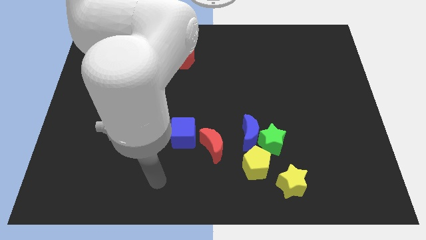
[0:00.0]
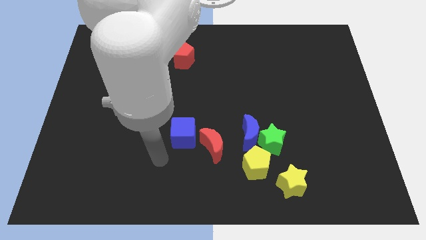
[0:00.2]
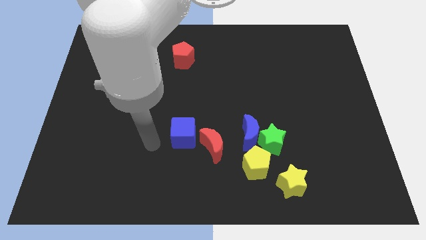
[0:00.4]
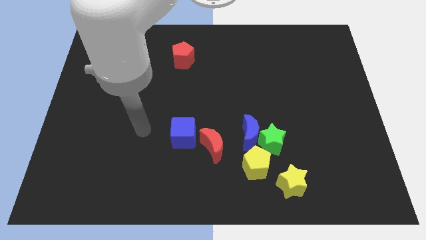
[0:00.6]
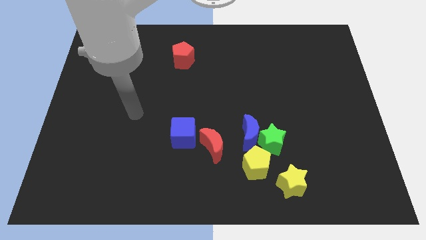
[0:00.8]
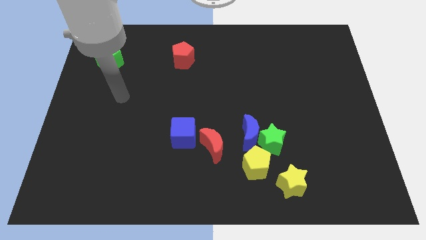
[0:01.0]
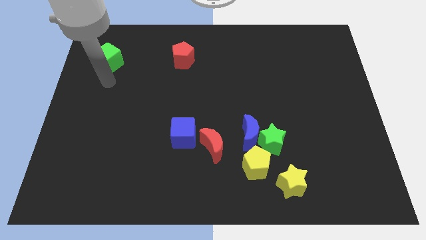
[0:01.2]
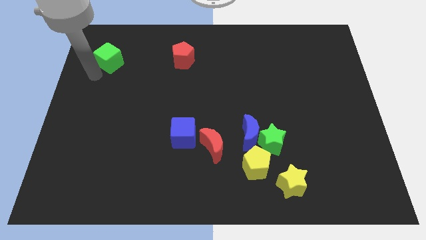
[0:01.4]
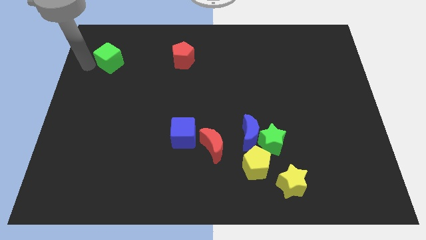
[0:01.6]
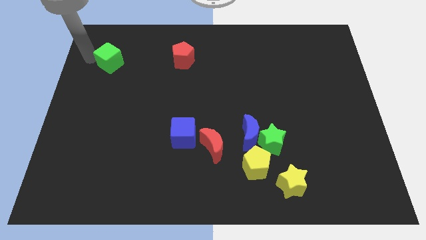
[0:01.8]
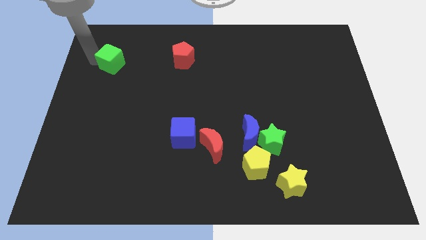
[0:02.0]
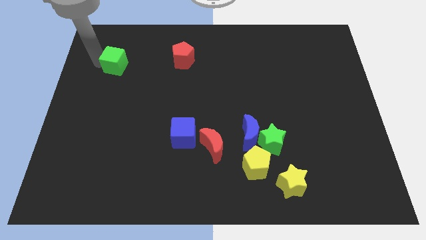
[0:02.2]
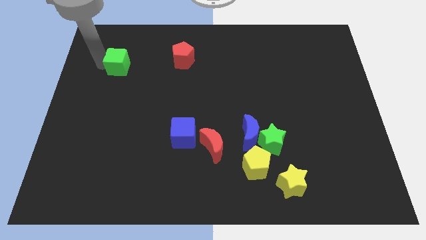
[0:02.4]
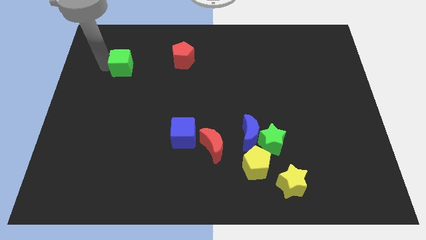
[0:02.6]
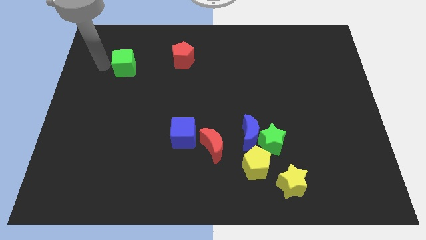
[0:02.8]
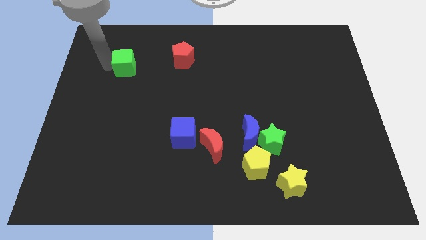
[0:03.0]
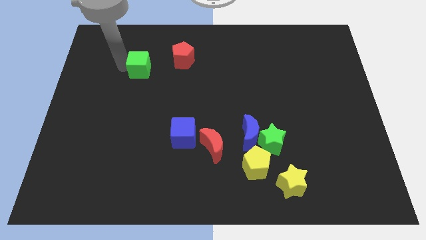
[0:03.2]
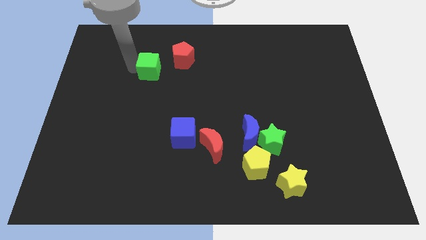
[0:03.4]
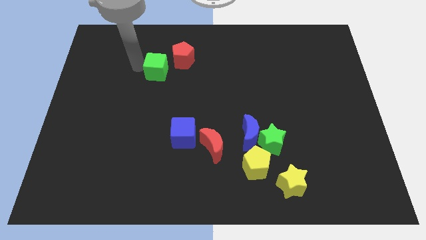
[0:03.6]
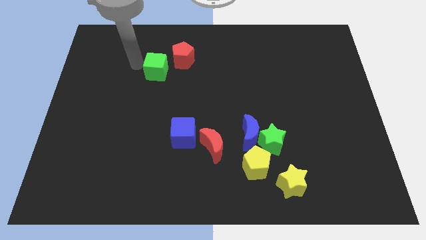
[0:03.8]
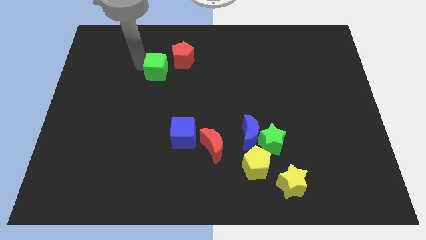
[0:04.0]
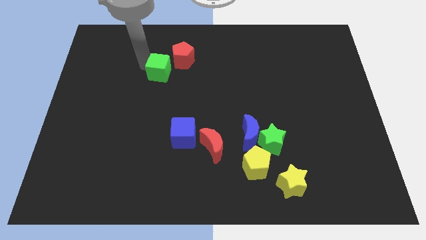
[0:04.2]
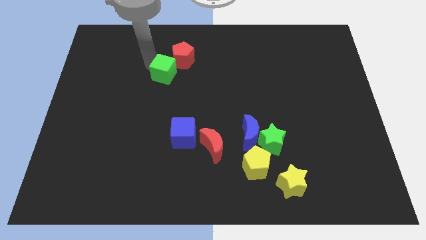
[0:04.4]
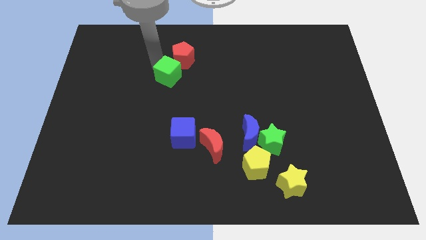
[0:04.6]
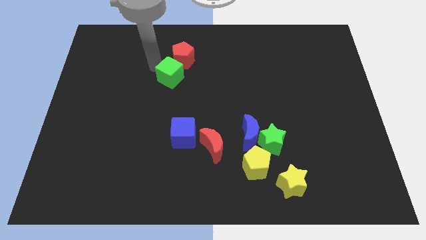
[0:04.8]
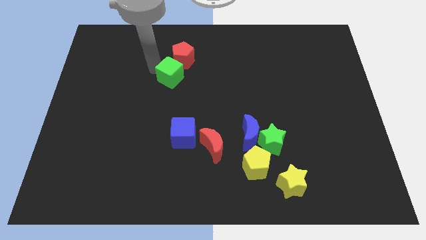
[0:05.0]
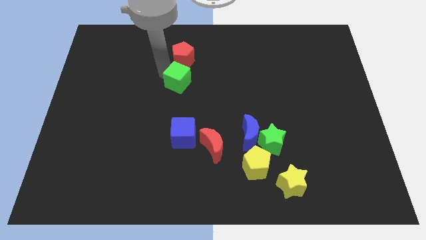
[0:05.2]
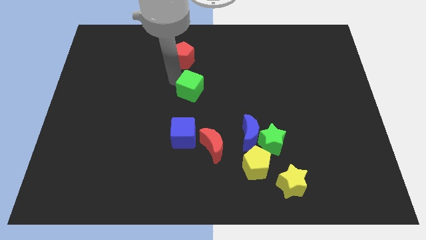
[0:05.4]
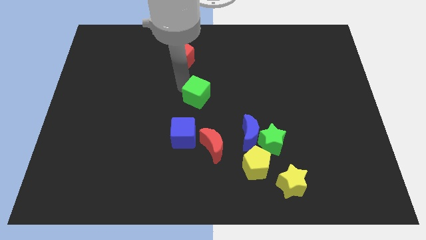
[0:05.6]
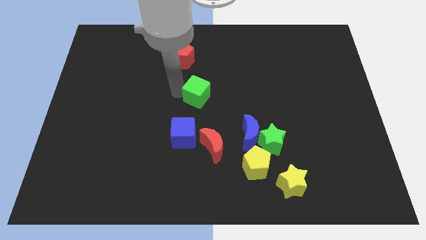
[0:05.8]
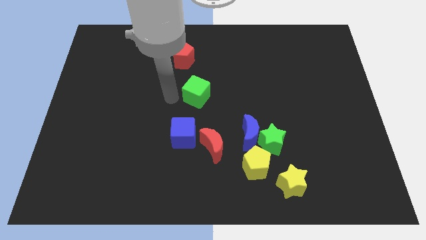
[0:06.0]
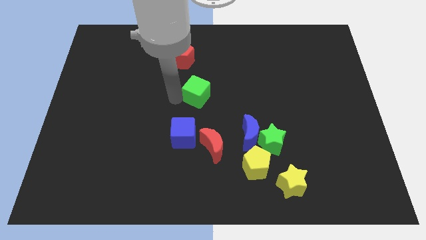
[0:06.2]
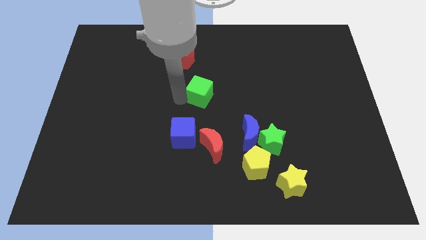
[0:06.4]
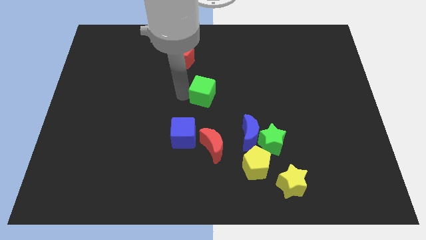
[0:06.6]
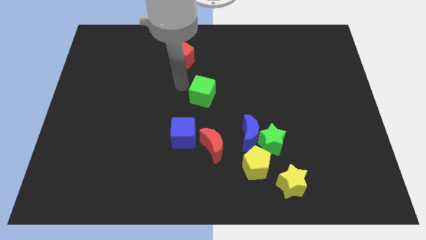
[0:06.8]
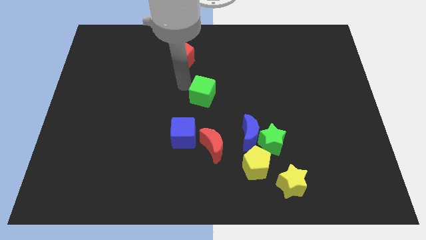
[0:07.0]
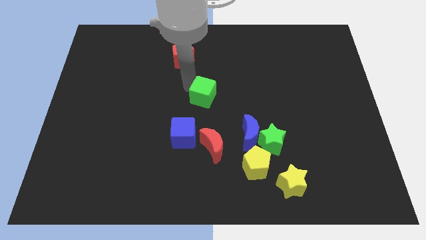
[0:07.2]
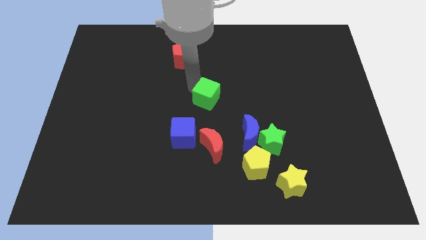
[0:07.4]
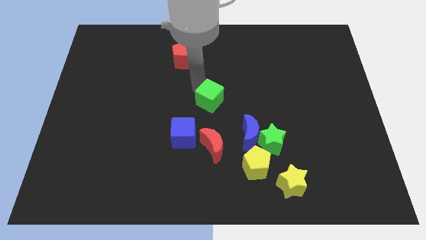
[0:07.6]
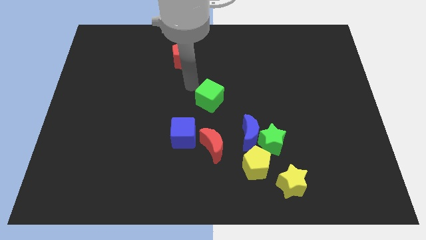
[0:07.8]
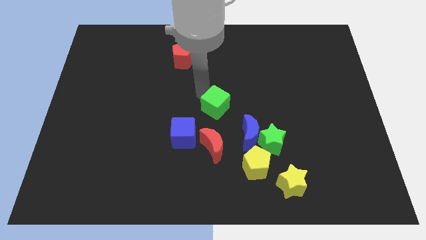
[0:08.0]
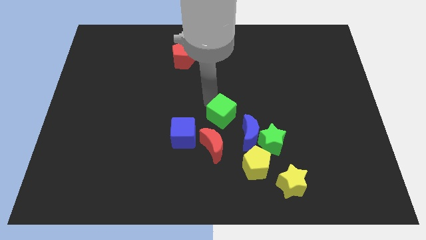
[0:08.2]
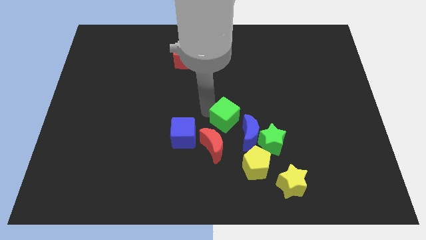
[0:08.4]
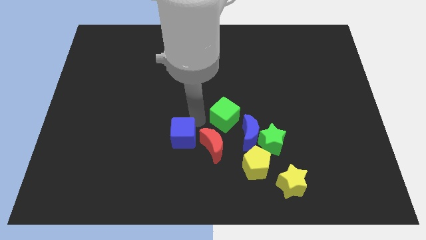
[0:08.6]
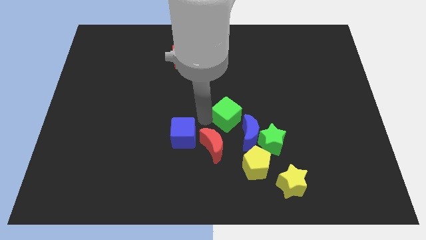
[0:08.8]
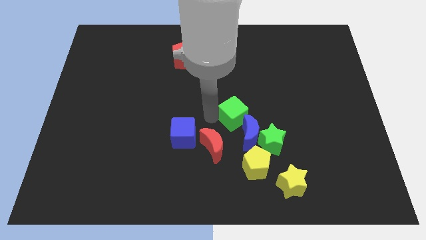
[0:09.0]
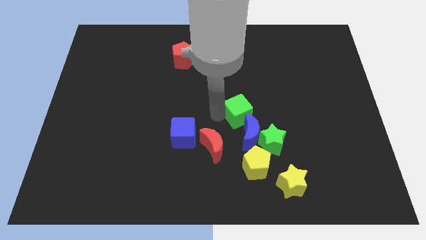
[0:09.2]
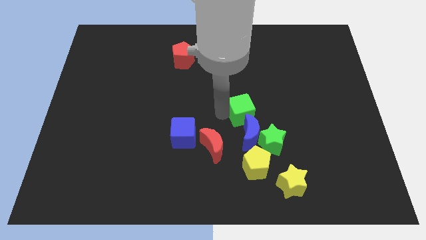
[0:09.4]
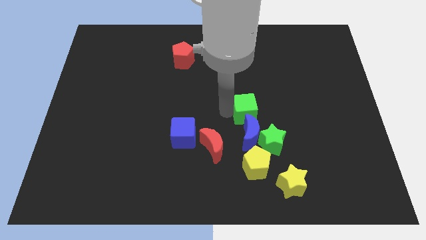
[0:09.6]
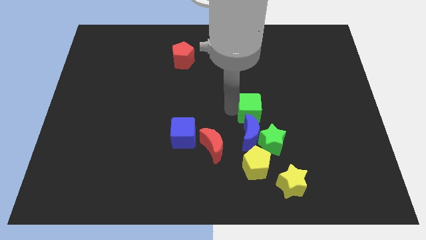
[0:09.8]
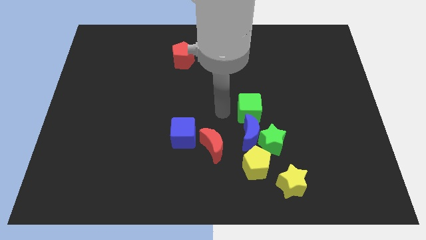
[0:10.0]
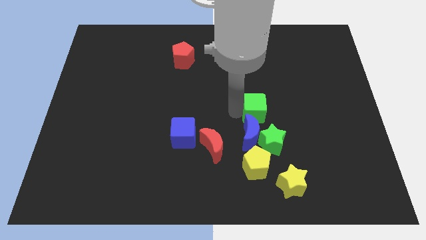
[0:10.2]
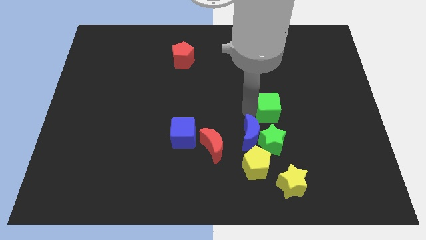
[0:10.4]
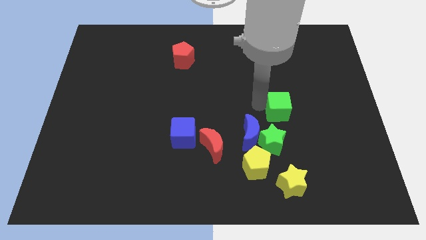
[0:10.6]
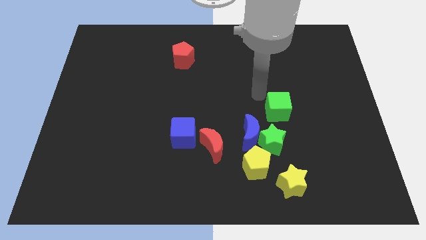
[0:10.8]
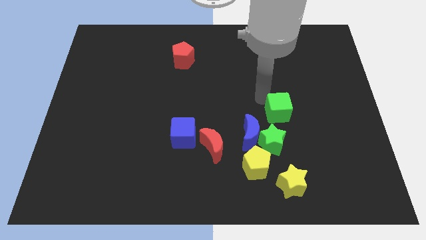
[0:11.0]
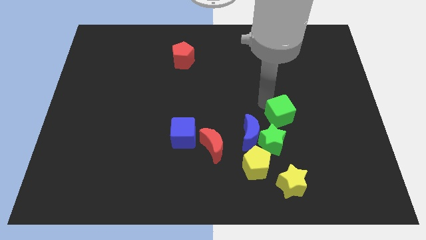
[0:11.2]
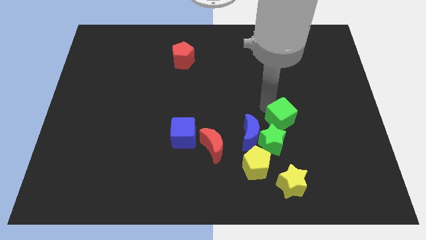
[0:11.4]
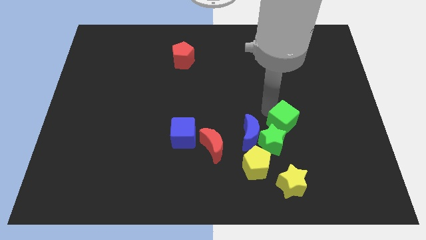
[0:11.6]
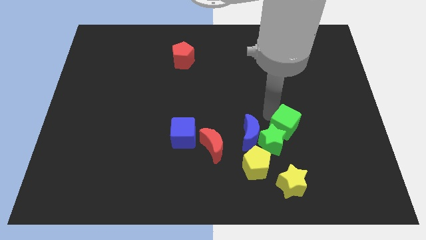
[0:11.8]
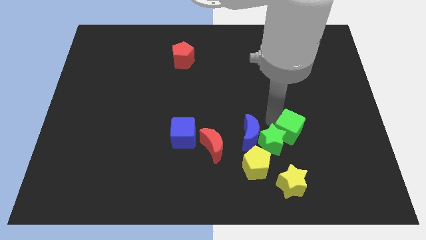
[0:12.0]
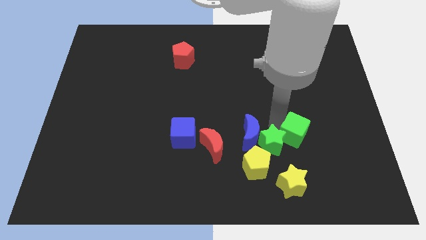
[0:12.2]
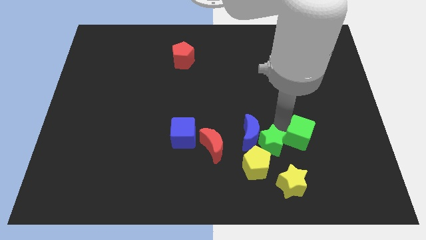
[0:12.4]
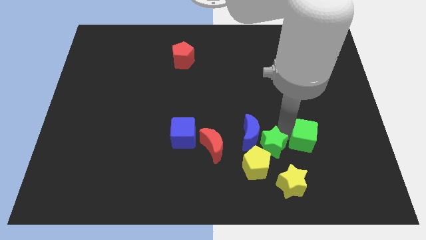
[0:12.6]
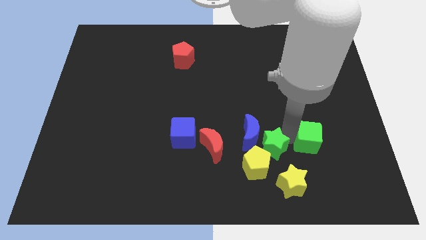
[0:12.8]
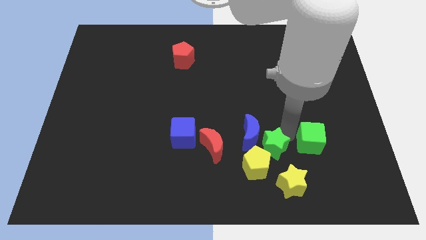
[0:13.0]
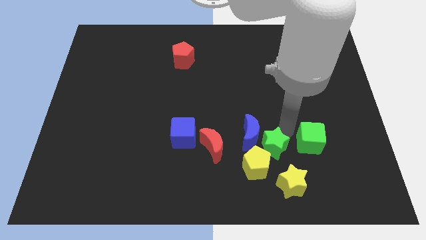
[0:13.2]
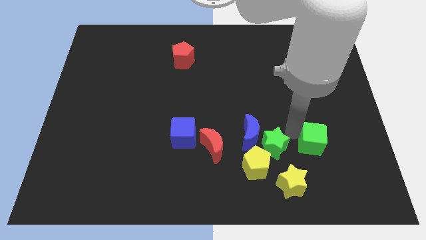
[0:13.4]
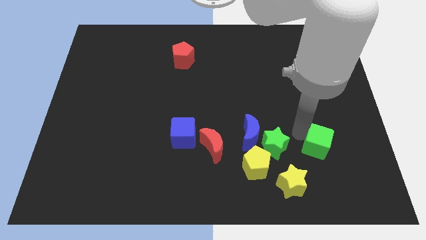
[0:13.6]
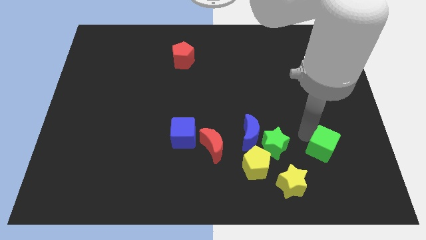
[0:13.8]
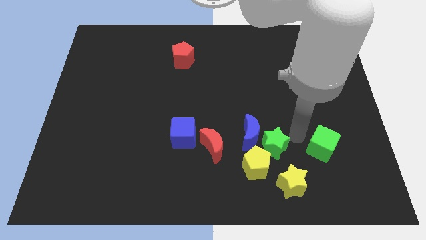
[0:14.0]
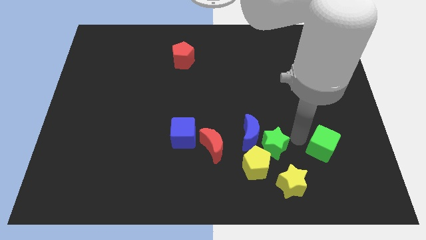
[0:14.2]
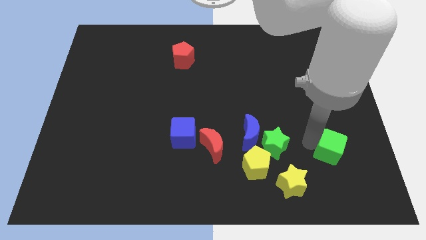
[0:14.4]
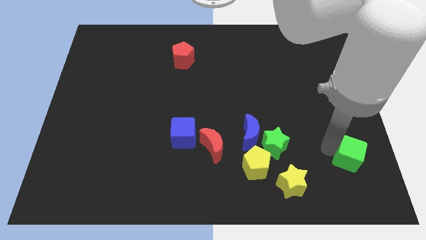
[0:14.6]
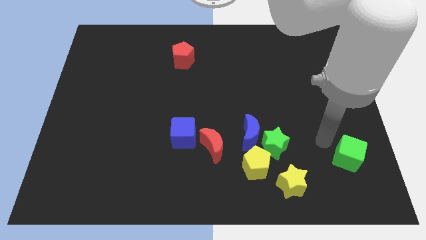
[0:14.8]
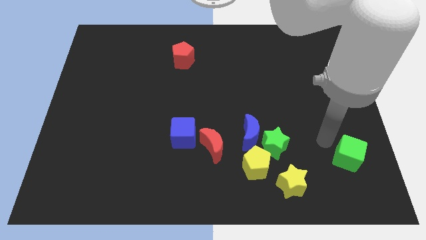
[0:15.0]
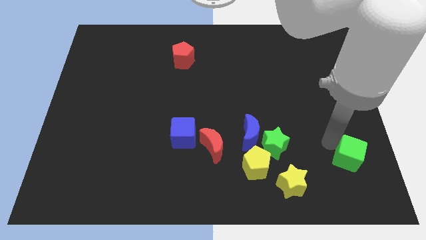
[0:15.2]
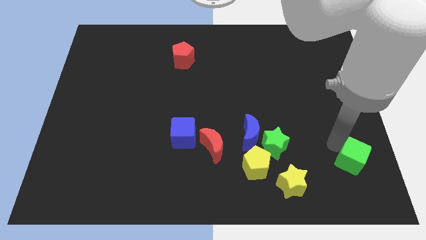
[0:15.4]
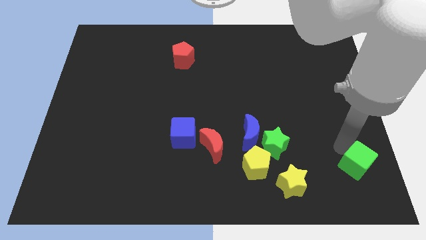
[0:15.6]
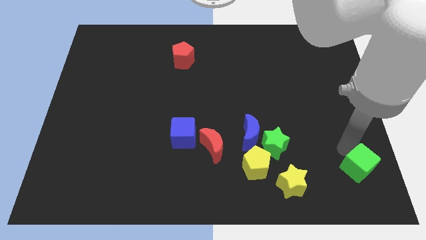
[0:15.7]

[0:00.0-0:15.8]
put the green cube to the bottom right of the board
